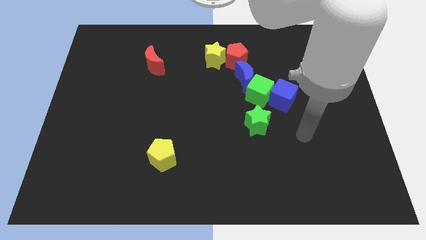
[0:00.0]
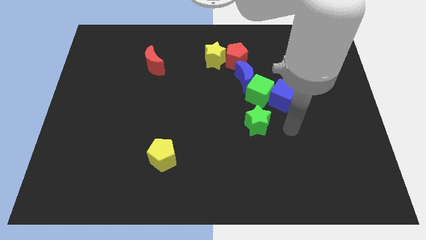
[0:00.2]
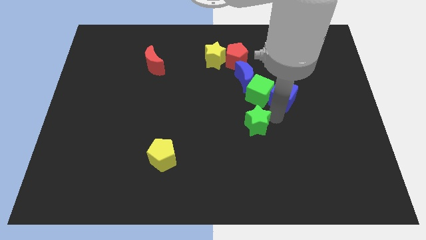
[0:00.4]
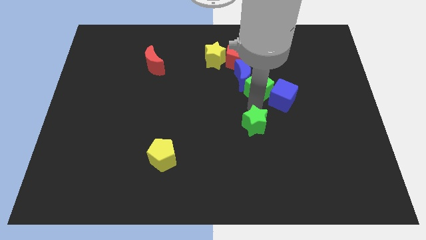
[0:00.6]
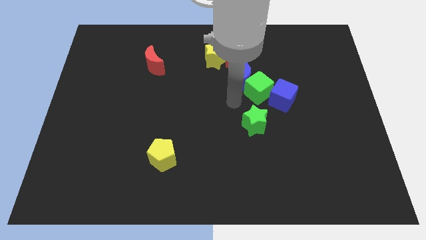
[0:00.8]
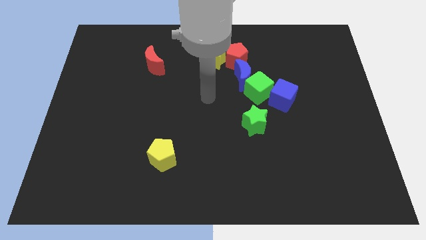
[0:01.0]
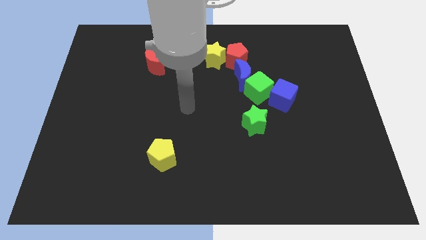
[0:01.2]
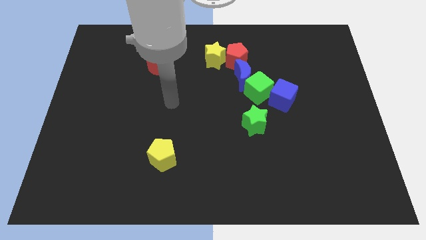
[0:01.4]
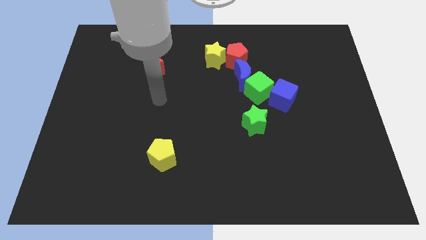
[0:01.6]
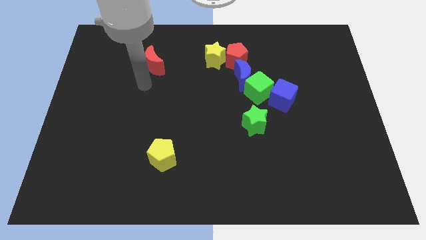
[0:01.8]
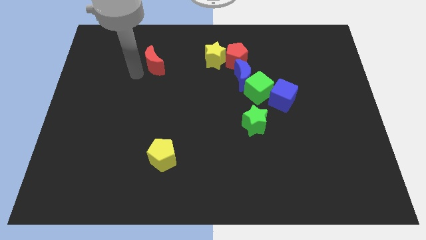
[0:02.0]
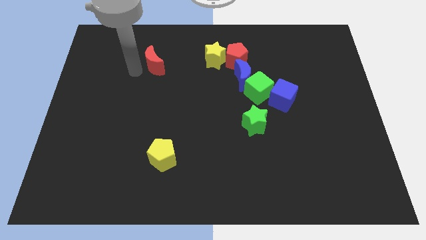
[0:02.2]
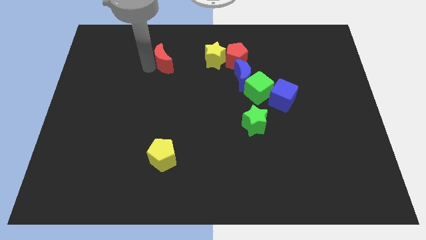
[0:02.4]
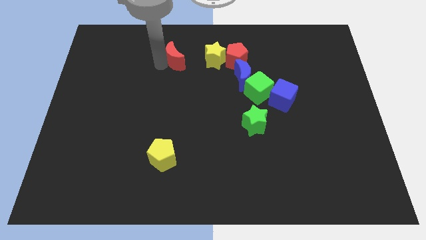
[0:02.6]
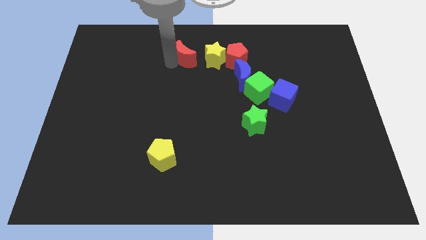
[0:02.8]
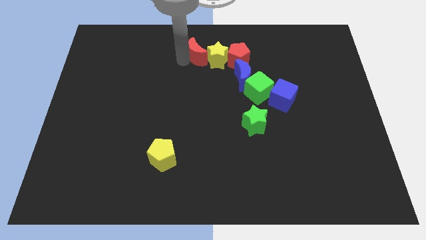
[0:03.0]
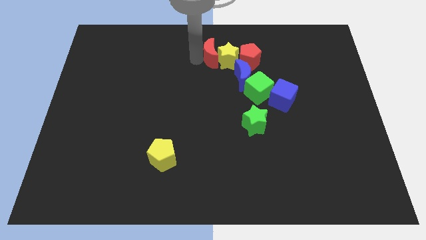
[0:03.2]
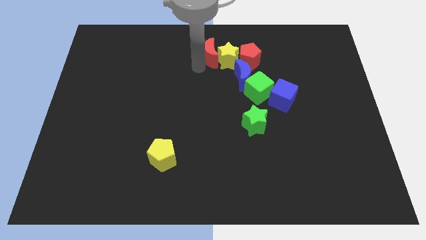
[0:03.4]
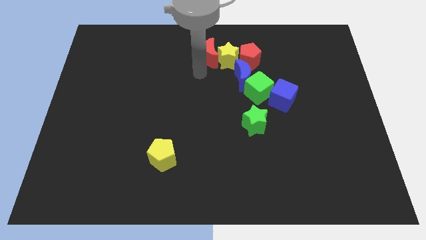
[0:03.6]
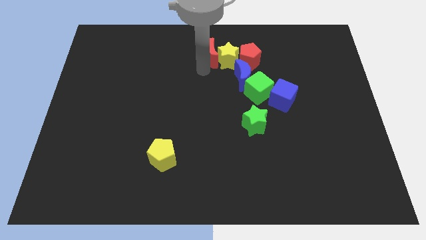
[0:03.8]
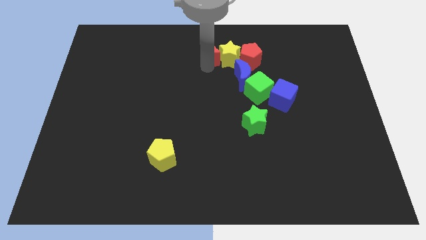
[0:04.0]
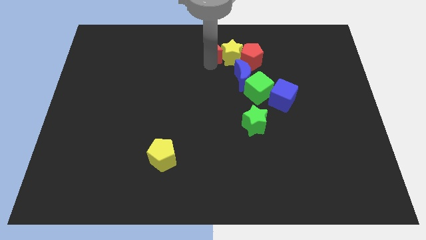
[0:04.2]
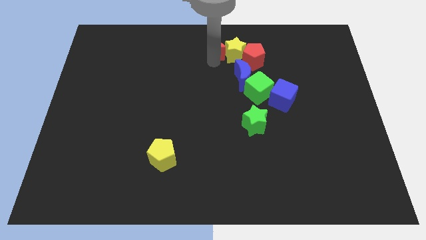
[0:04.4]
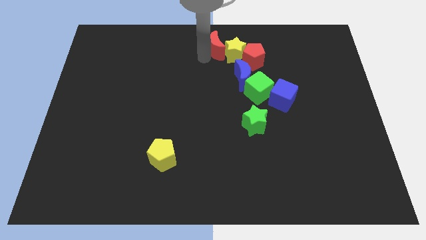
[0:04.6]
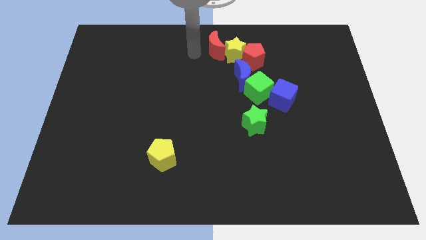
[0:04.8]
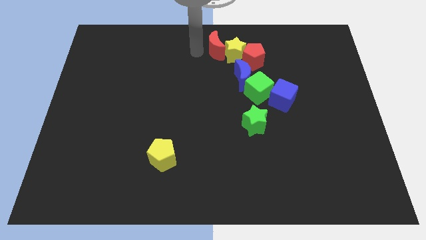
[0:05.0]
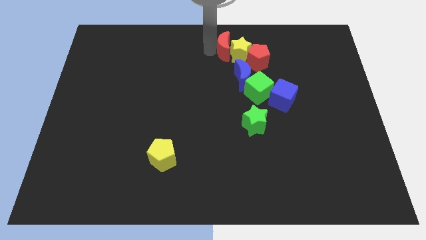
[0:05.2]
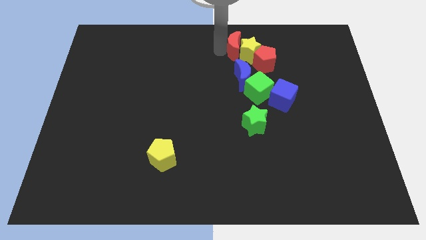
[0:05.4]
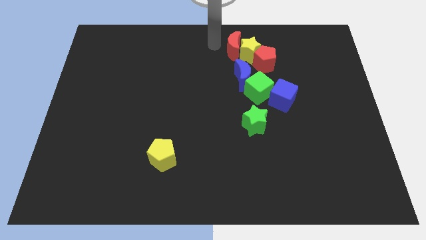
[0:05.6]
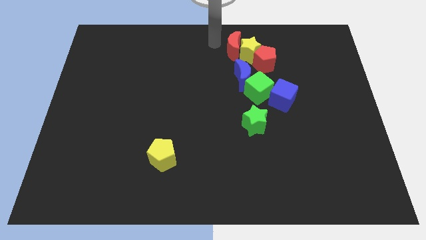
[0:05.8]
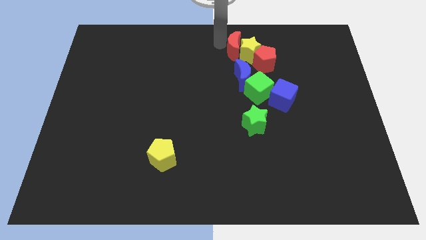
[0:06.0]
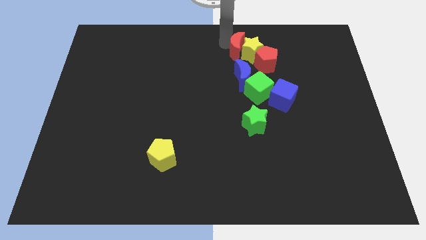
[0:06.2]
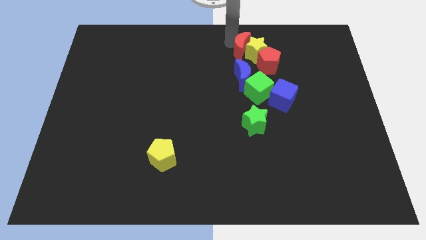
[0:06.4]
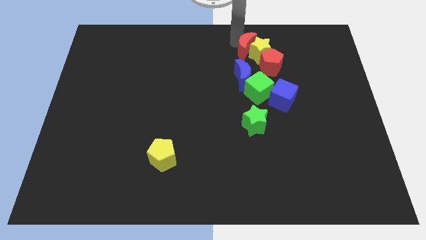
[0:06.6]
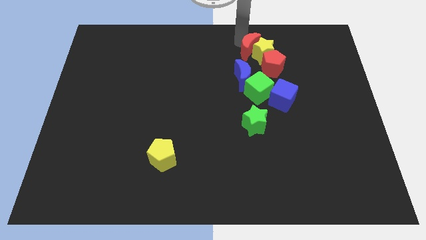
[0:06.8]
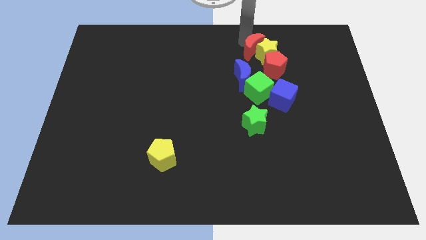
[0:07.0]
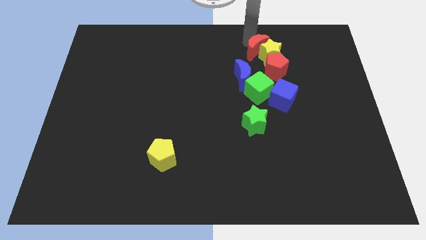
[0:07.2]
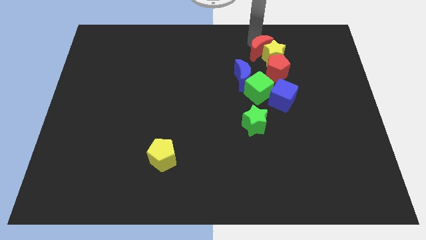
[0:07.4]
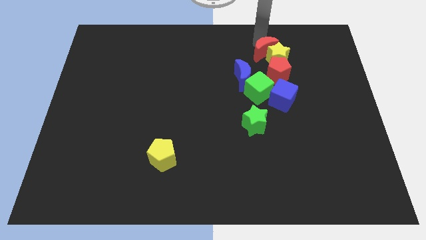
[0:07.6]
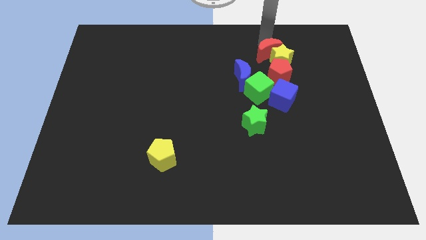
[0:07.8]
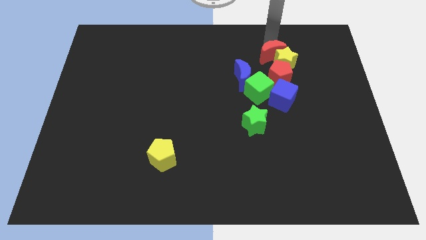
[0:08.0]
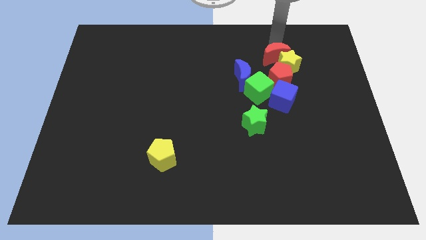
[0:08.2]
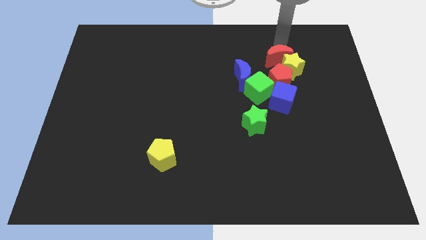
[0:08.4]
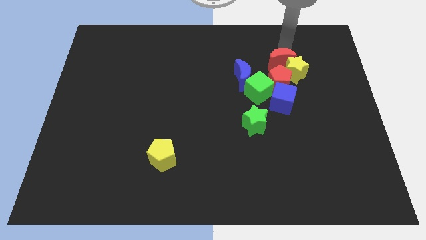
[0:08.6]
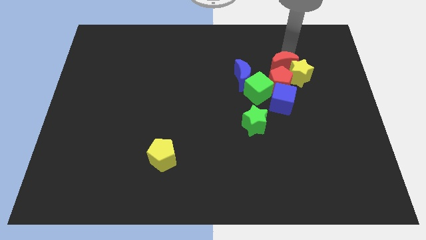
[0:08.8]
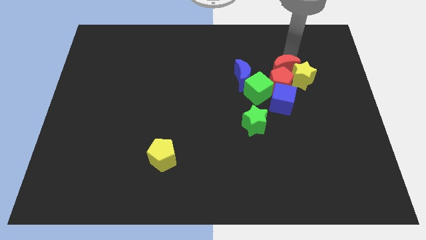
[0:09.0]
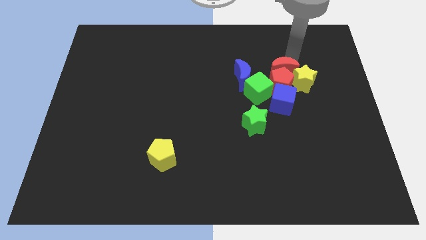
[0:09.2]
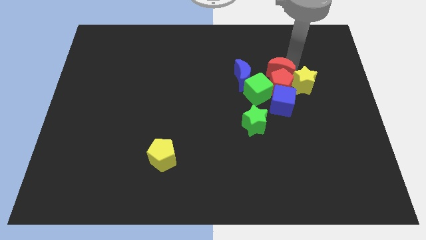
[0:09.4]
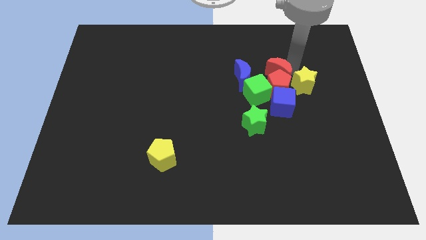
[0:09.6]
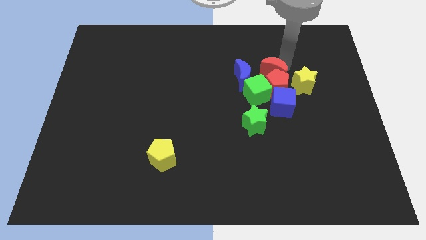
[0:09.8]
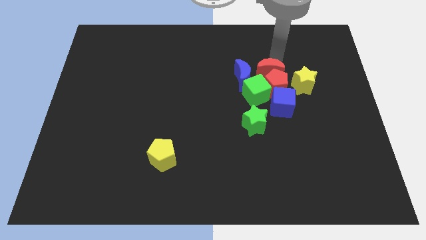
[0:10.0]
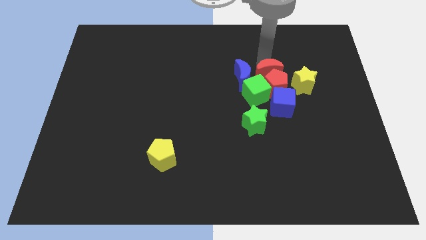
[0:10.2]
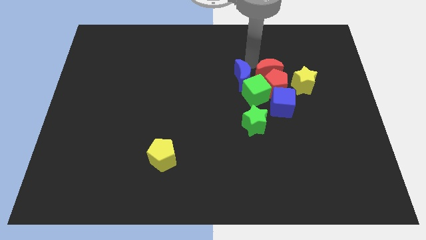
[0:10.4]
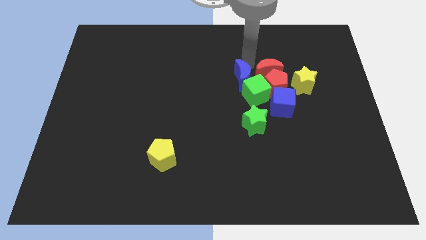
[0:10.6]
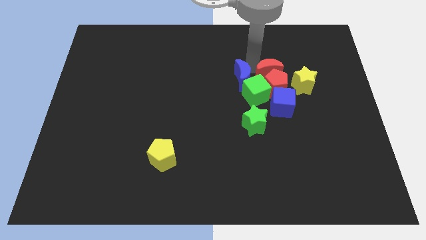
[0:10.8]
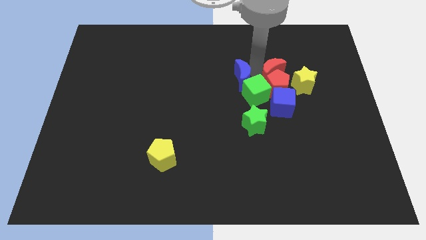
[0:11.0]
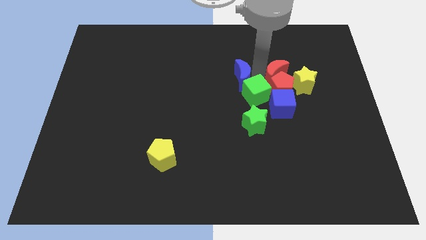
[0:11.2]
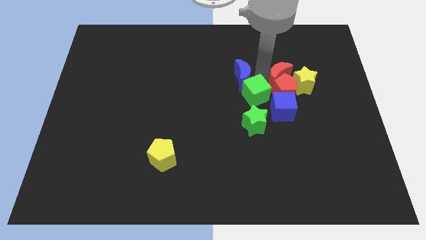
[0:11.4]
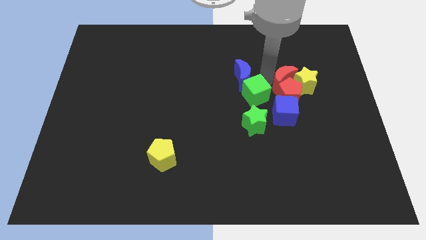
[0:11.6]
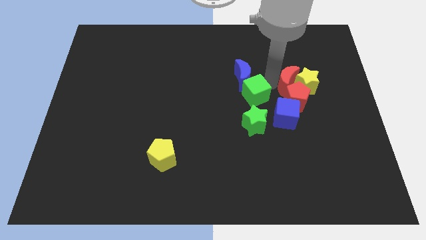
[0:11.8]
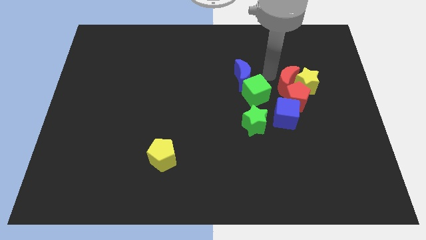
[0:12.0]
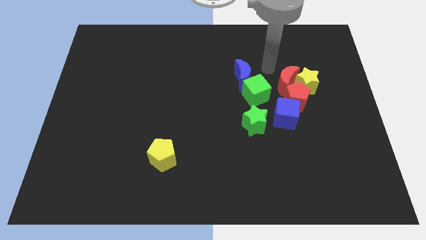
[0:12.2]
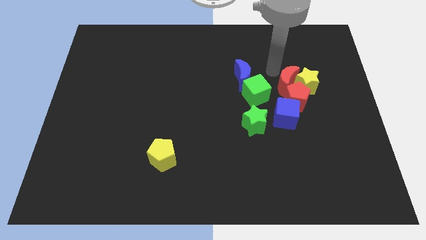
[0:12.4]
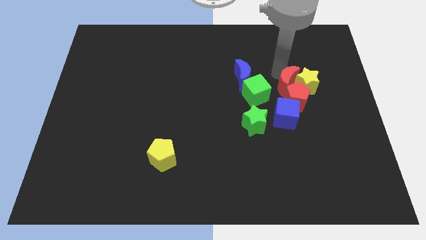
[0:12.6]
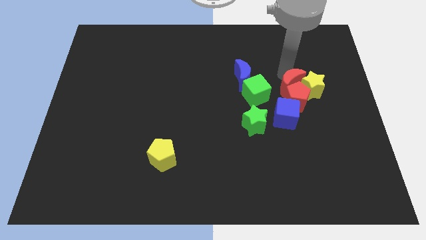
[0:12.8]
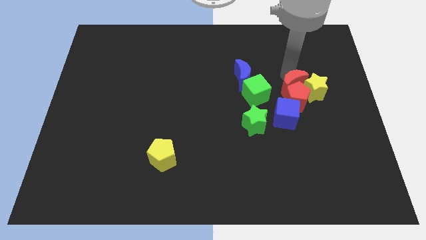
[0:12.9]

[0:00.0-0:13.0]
move the red moon diagonally up and to the right of the blue cube

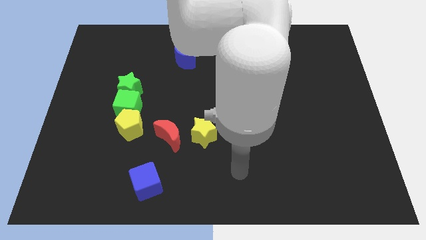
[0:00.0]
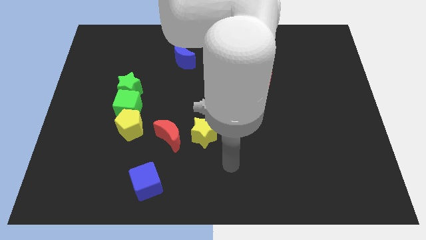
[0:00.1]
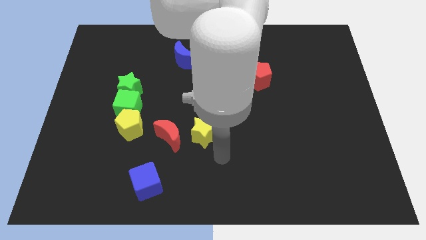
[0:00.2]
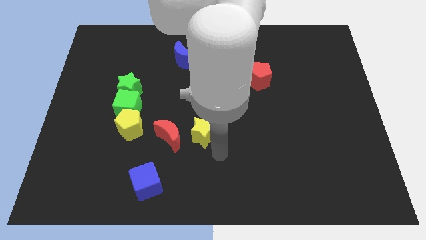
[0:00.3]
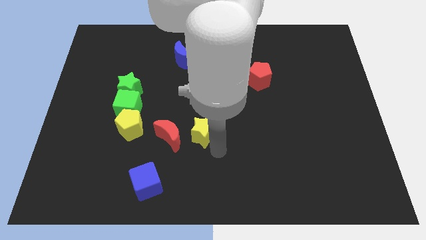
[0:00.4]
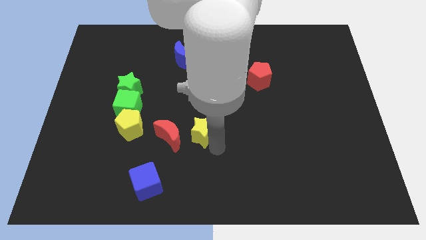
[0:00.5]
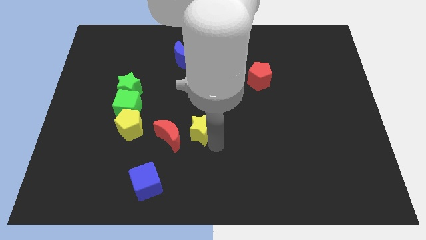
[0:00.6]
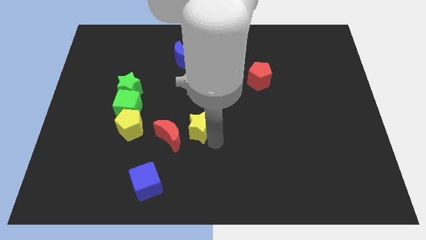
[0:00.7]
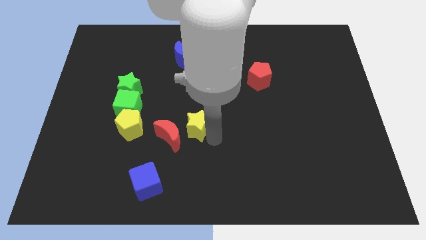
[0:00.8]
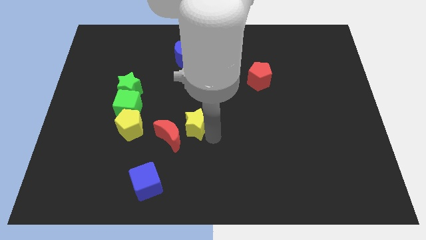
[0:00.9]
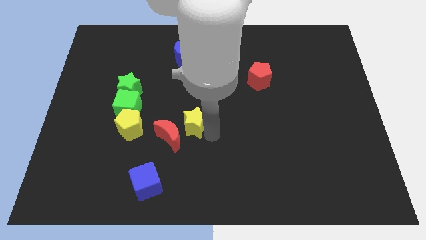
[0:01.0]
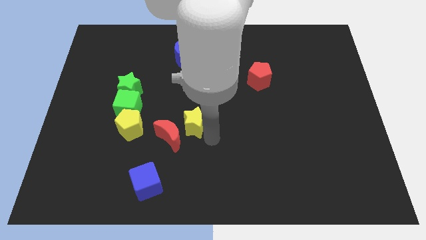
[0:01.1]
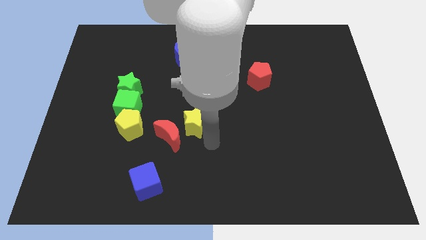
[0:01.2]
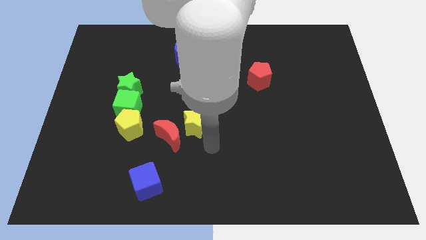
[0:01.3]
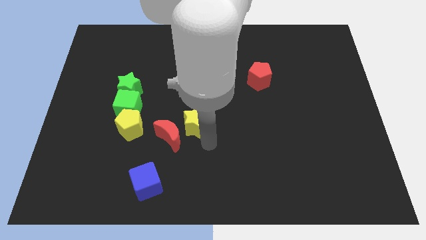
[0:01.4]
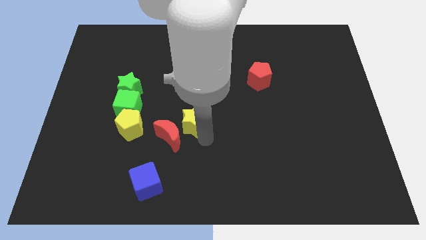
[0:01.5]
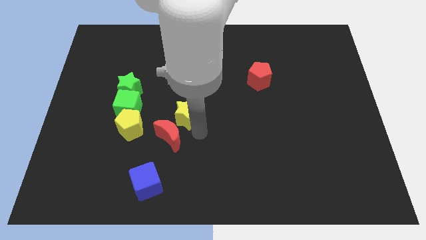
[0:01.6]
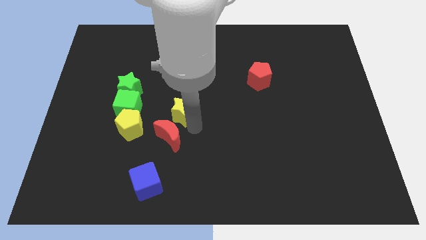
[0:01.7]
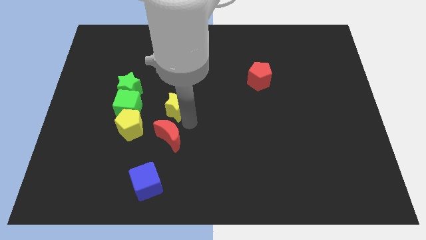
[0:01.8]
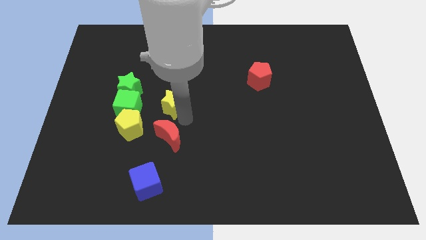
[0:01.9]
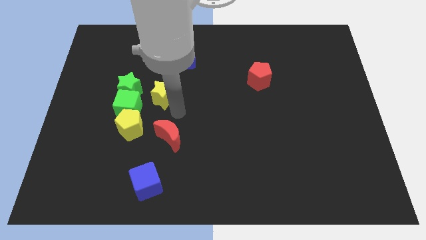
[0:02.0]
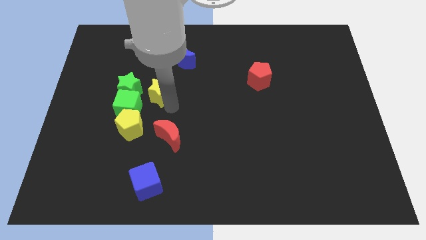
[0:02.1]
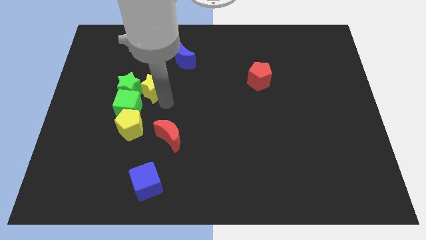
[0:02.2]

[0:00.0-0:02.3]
slide the yellow star to the top right side of the green star
